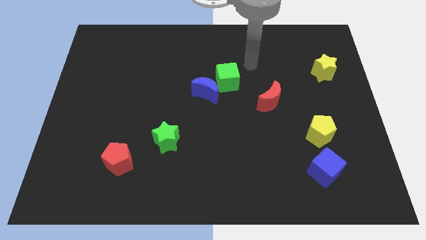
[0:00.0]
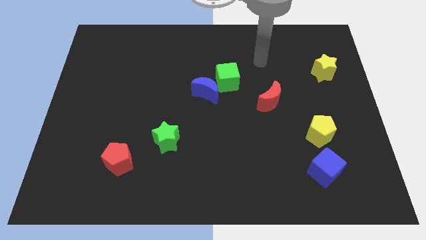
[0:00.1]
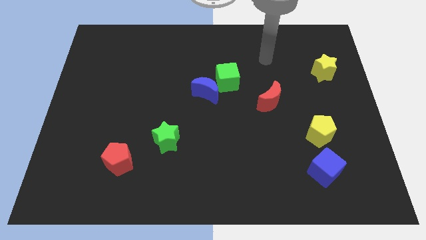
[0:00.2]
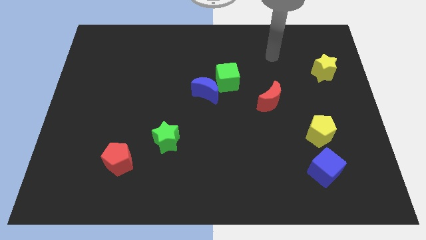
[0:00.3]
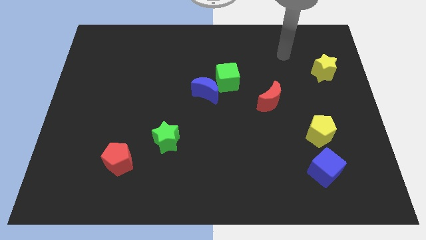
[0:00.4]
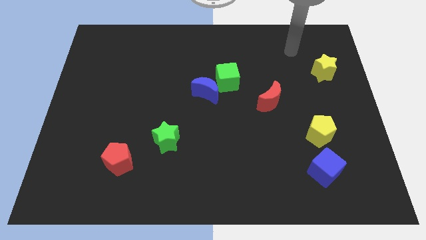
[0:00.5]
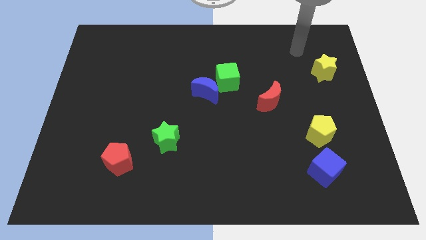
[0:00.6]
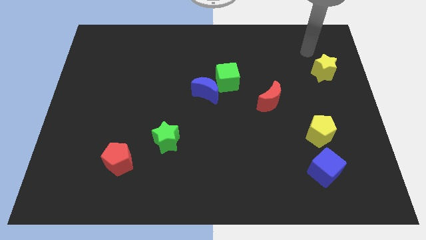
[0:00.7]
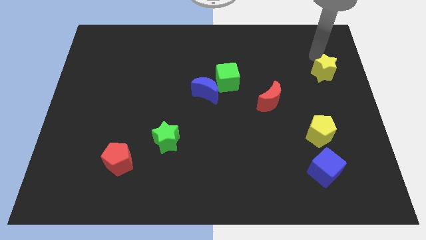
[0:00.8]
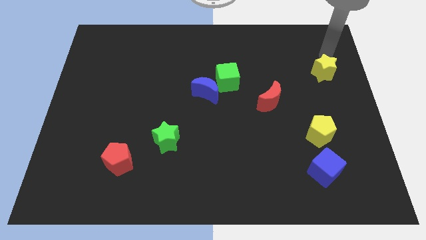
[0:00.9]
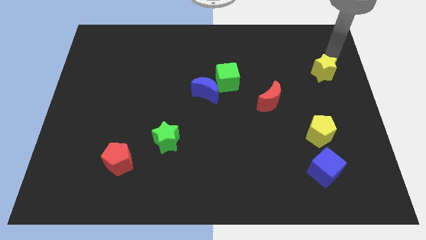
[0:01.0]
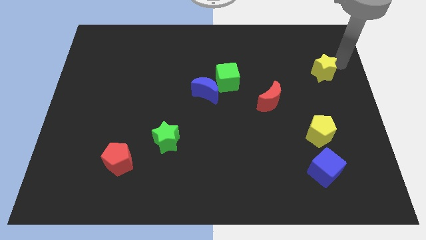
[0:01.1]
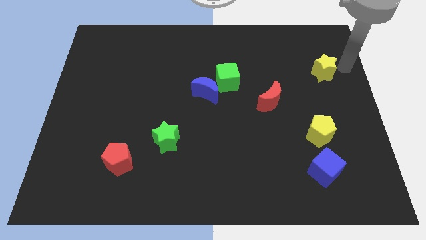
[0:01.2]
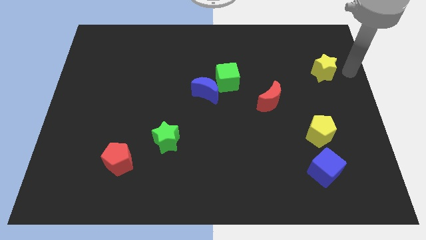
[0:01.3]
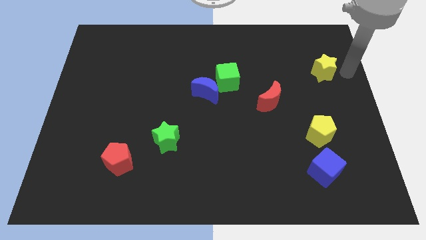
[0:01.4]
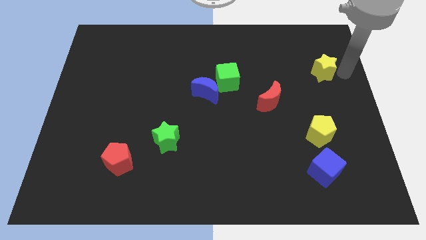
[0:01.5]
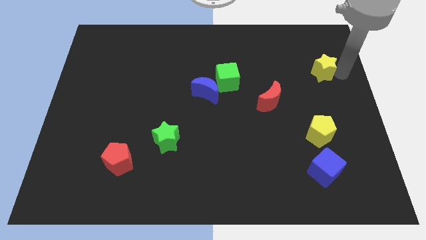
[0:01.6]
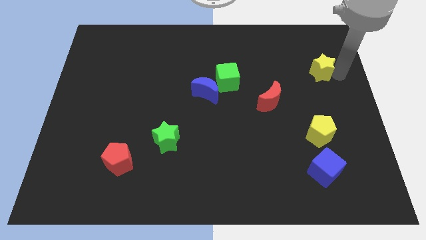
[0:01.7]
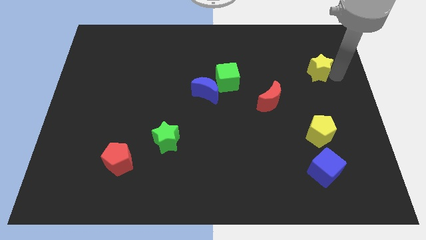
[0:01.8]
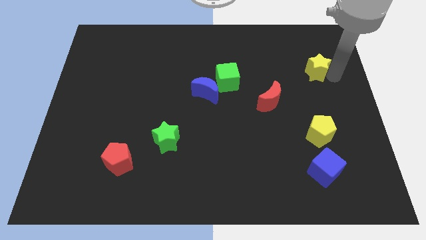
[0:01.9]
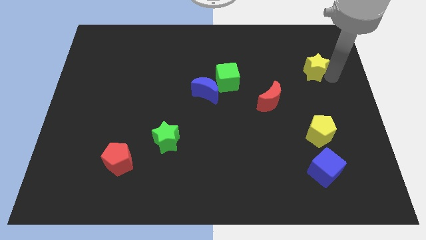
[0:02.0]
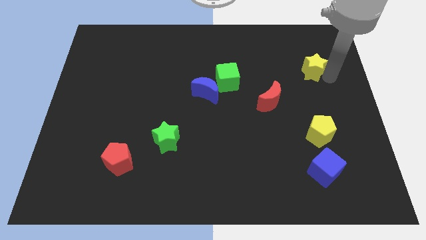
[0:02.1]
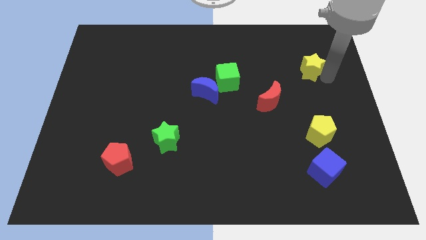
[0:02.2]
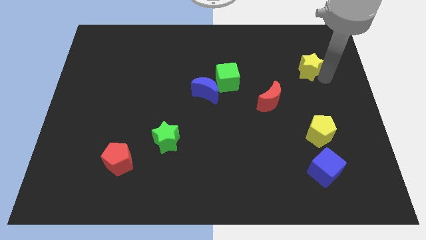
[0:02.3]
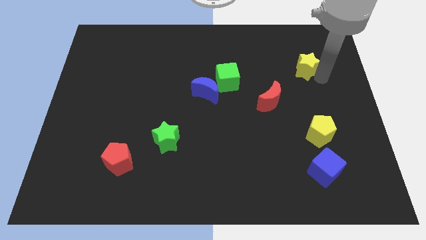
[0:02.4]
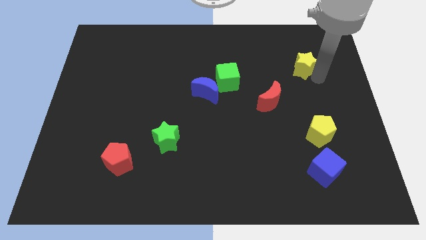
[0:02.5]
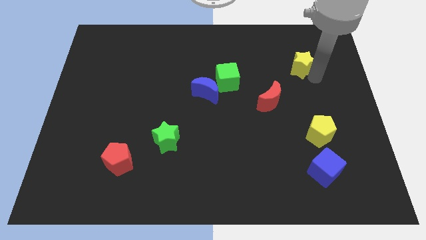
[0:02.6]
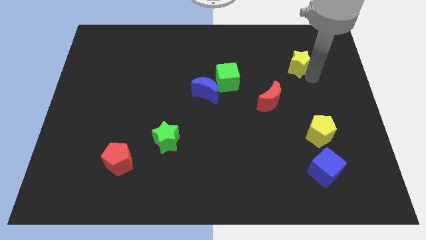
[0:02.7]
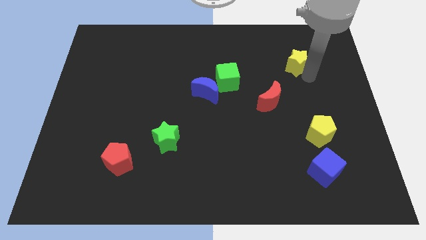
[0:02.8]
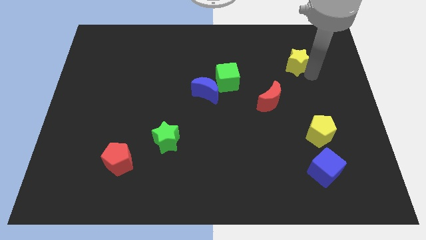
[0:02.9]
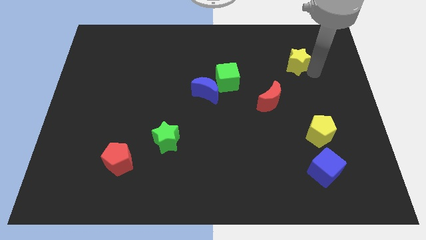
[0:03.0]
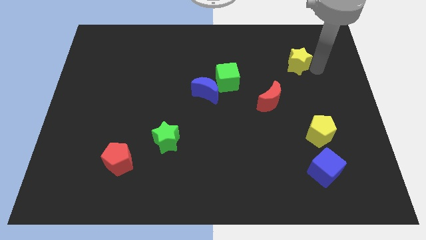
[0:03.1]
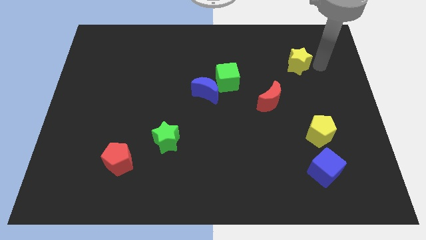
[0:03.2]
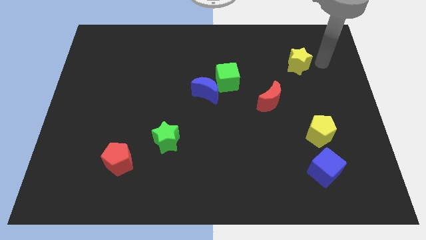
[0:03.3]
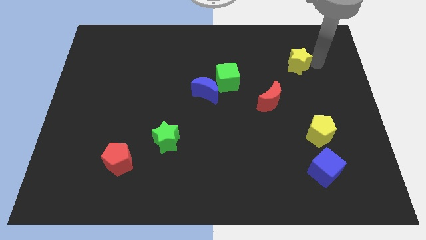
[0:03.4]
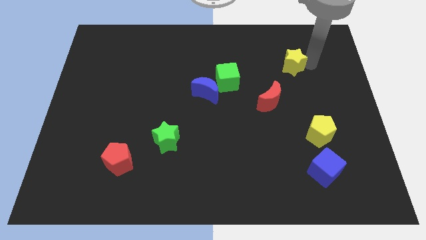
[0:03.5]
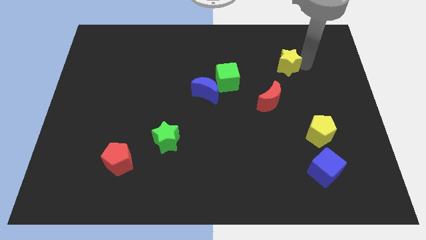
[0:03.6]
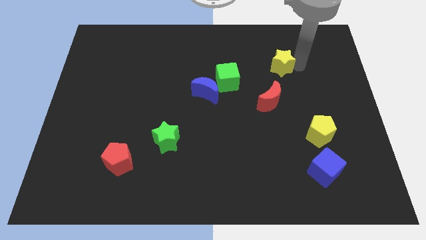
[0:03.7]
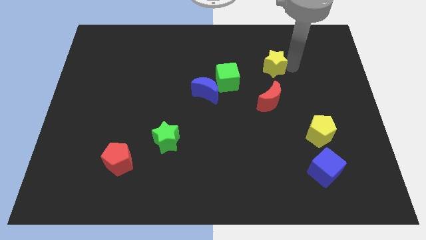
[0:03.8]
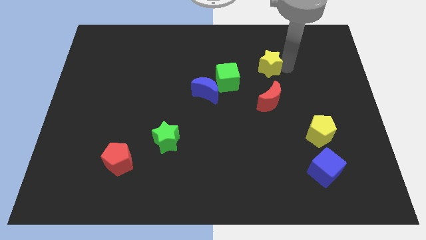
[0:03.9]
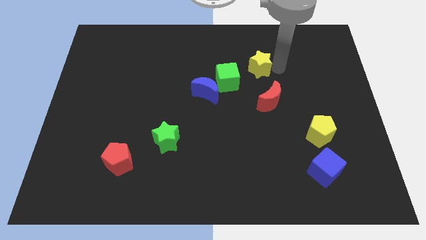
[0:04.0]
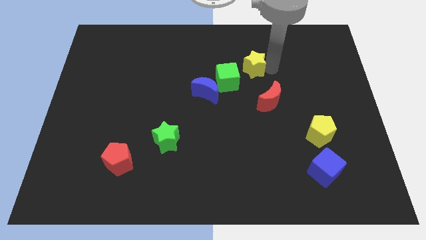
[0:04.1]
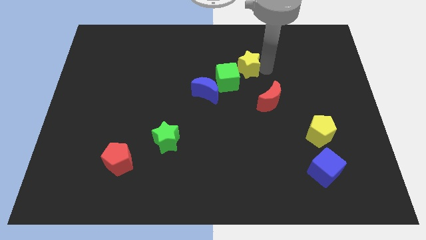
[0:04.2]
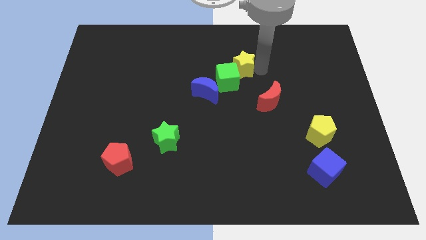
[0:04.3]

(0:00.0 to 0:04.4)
slide the yellow star to the left

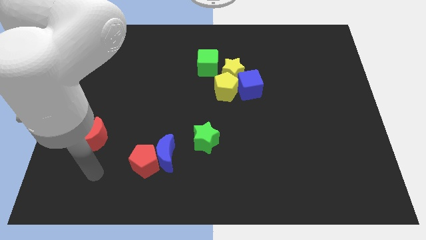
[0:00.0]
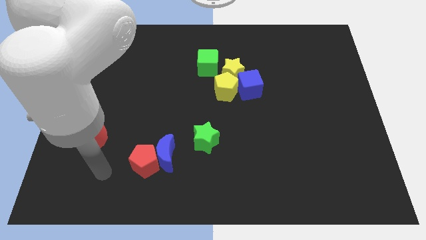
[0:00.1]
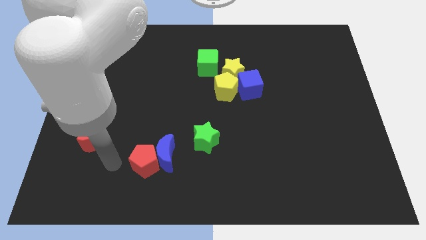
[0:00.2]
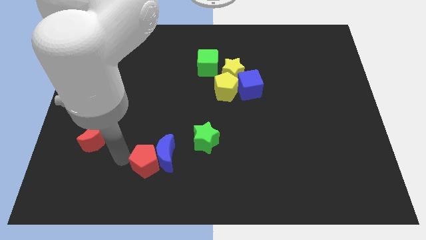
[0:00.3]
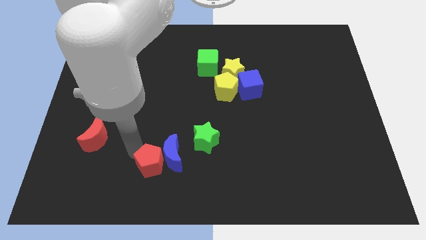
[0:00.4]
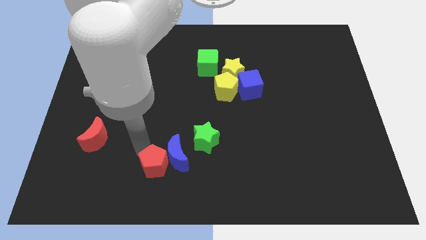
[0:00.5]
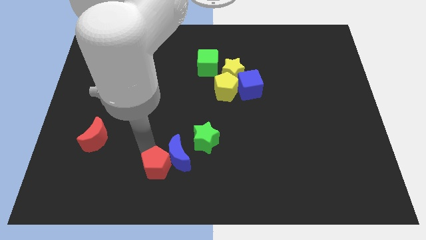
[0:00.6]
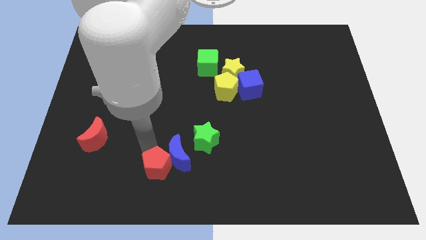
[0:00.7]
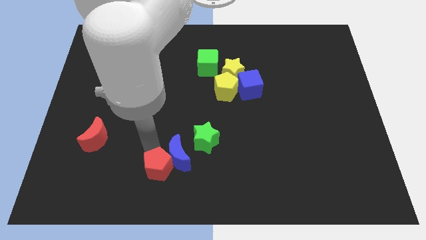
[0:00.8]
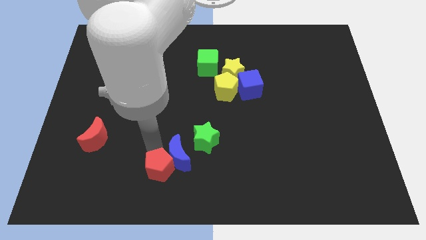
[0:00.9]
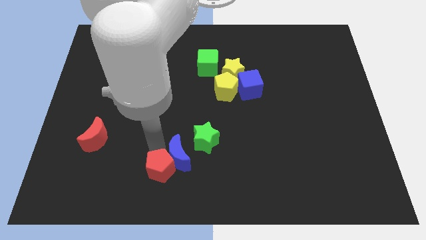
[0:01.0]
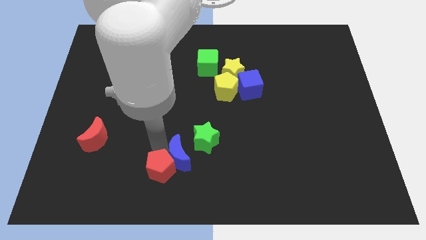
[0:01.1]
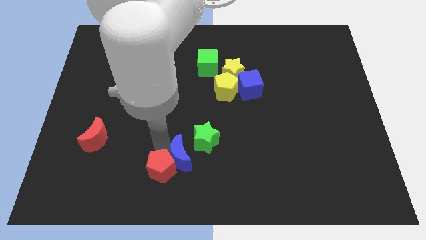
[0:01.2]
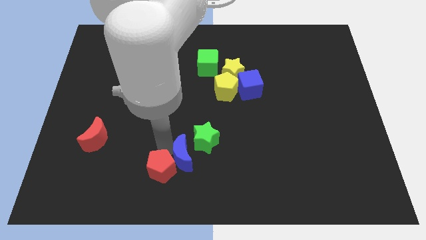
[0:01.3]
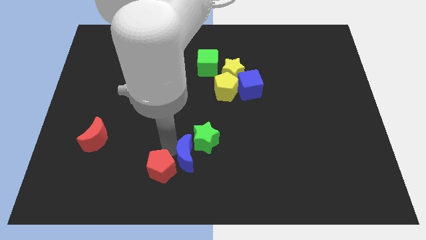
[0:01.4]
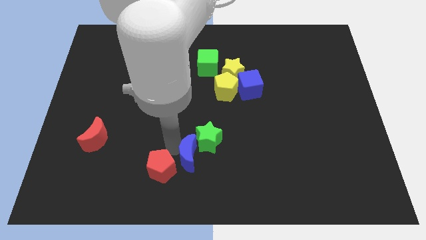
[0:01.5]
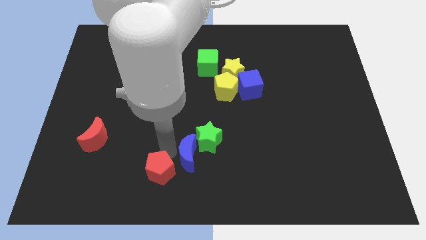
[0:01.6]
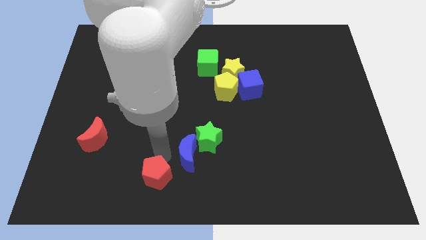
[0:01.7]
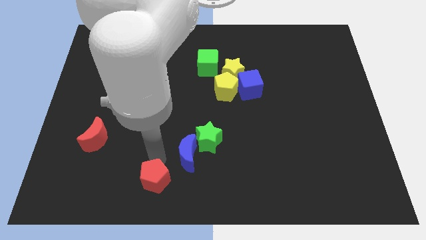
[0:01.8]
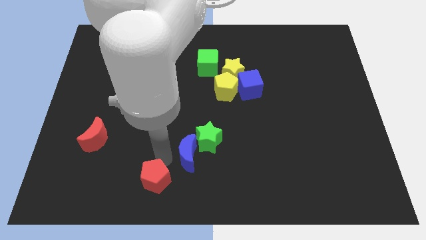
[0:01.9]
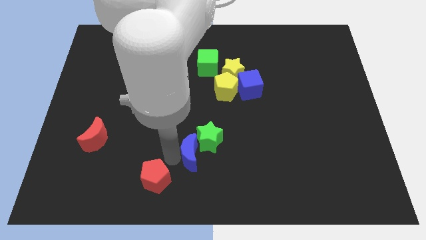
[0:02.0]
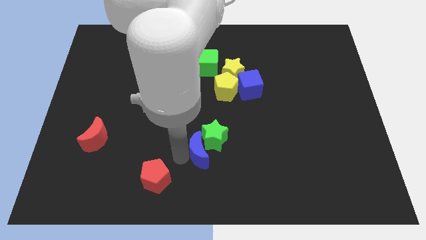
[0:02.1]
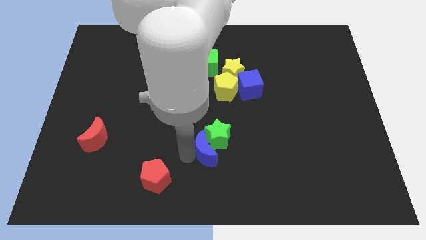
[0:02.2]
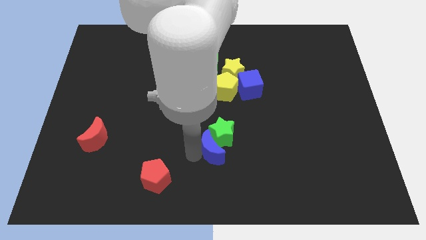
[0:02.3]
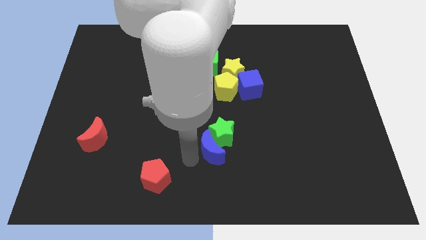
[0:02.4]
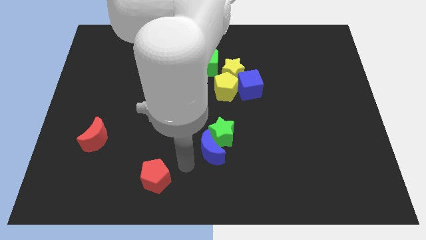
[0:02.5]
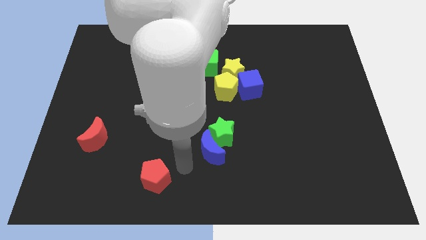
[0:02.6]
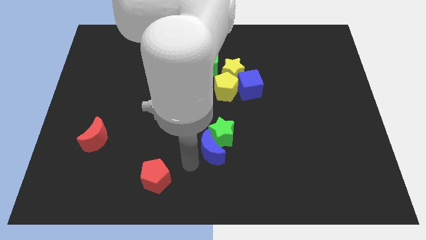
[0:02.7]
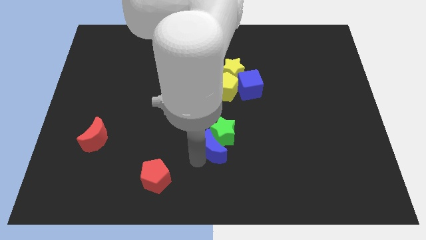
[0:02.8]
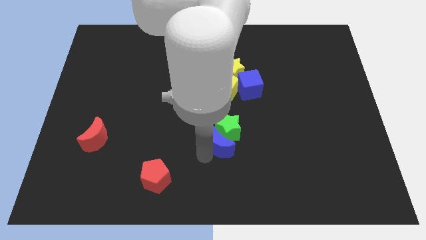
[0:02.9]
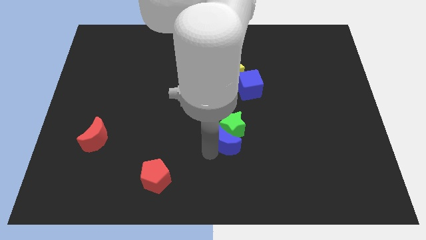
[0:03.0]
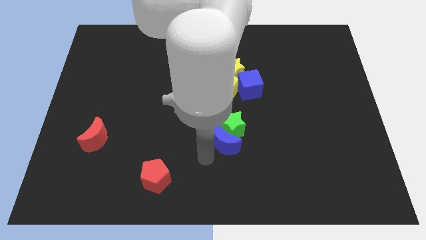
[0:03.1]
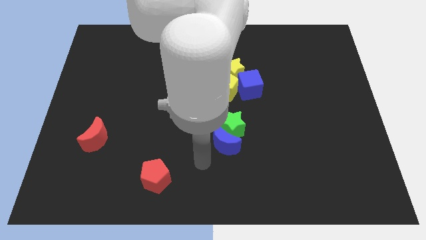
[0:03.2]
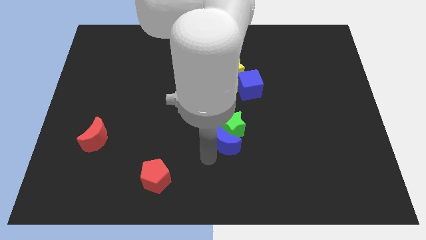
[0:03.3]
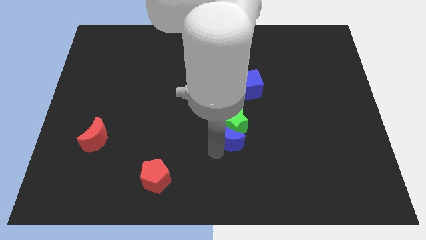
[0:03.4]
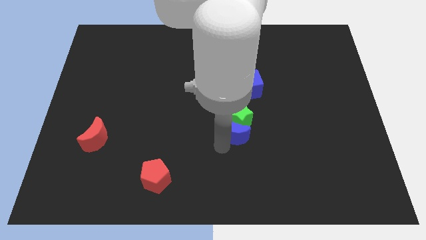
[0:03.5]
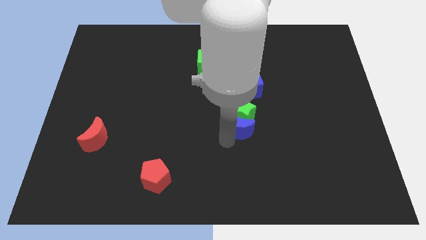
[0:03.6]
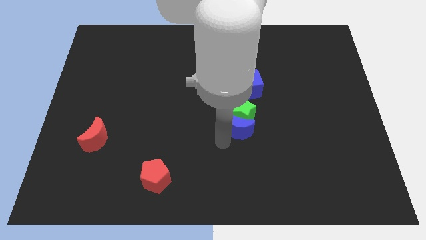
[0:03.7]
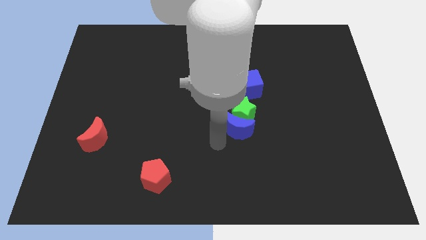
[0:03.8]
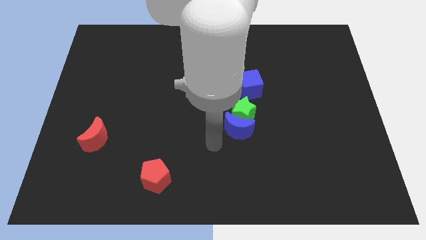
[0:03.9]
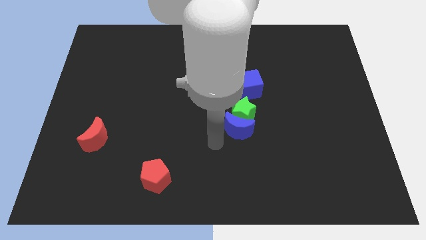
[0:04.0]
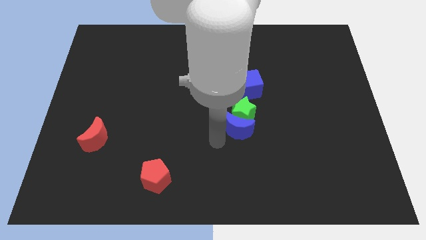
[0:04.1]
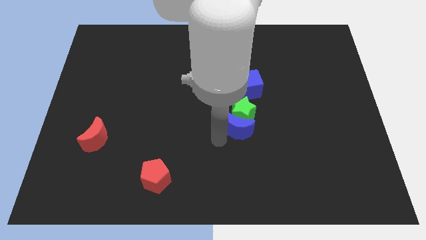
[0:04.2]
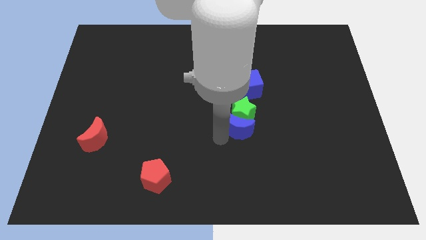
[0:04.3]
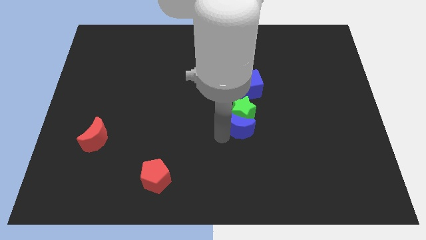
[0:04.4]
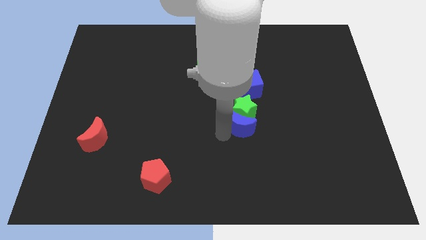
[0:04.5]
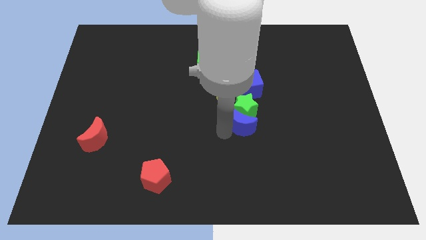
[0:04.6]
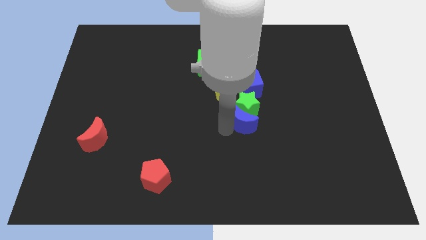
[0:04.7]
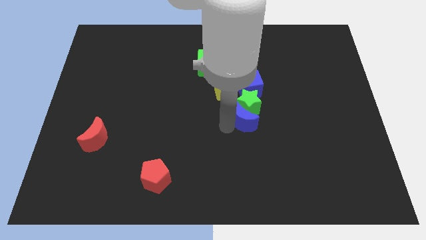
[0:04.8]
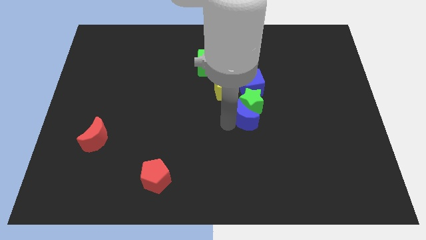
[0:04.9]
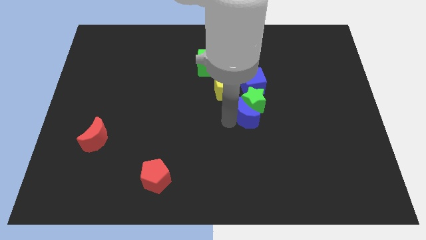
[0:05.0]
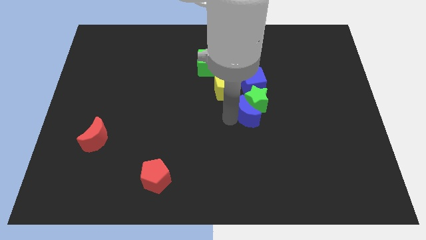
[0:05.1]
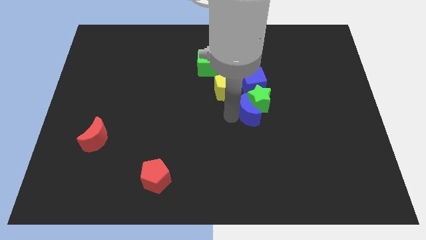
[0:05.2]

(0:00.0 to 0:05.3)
push the blue moon diagonally upwards and to the right
